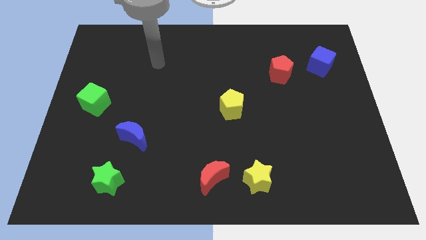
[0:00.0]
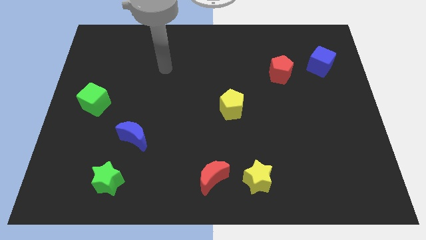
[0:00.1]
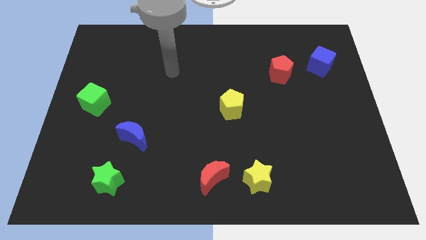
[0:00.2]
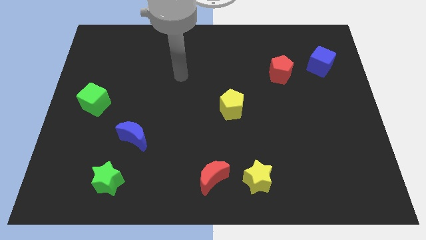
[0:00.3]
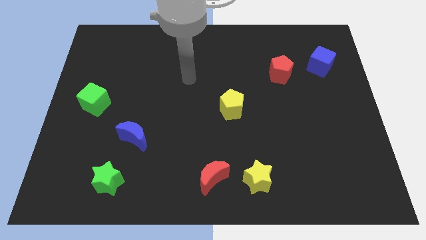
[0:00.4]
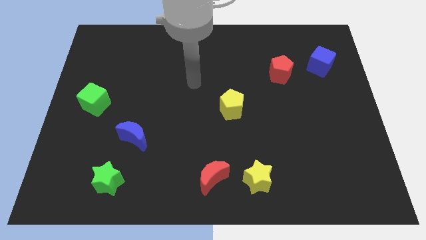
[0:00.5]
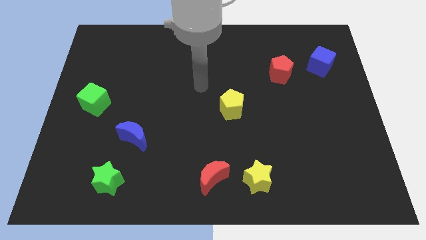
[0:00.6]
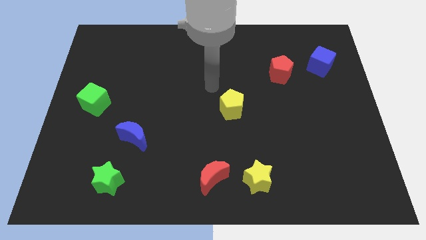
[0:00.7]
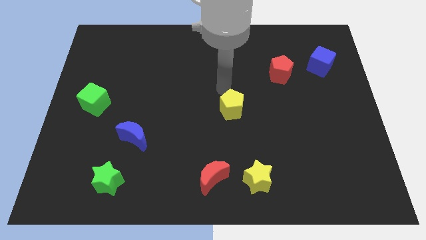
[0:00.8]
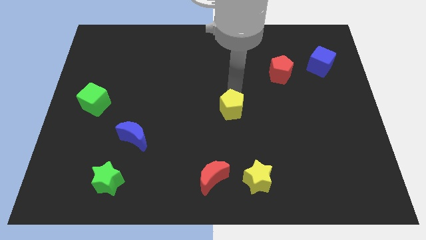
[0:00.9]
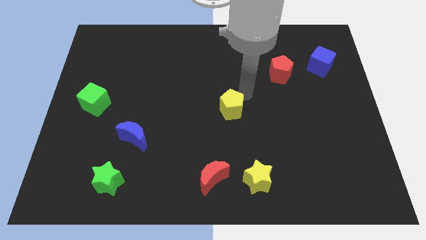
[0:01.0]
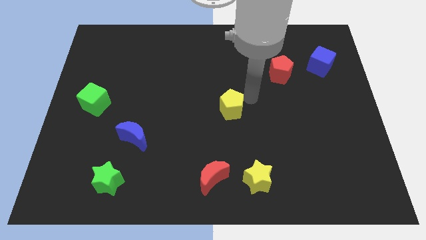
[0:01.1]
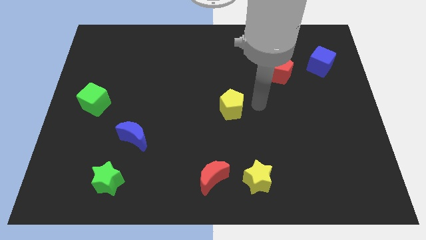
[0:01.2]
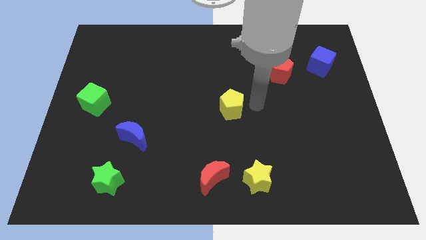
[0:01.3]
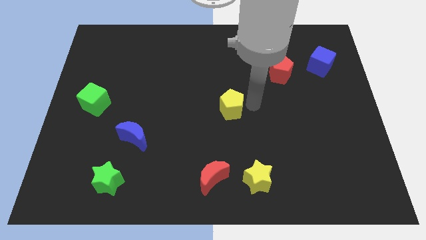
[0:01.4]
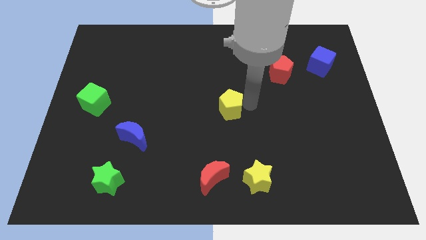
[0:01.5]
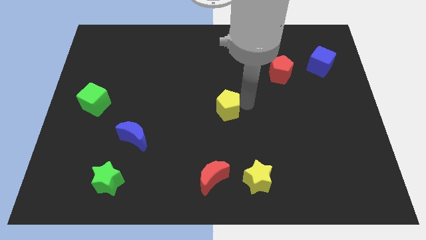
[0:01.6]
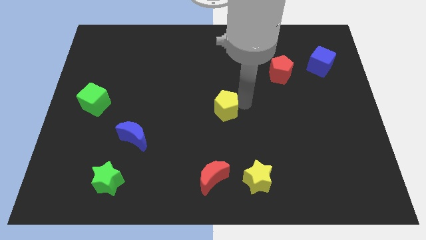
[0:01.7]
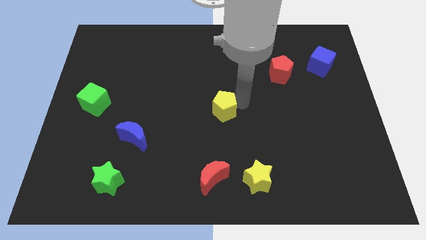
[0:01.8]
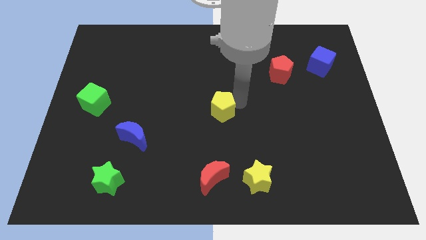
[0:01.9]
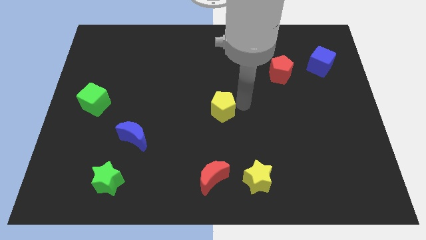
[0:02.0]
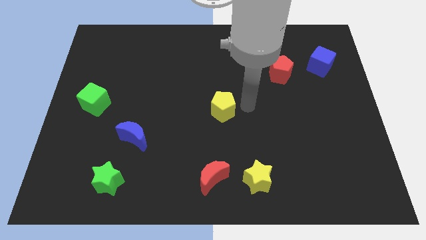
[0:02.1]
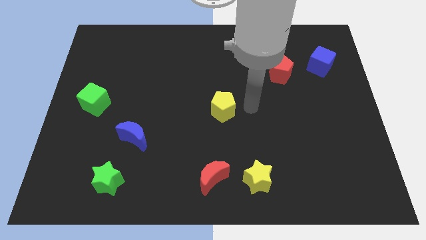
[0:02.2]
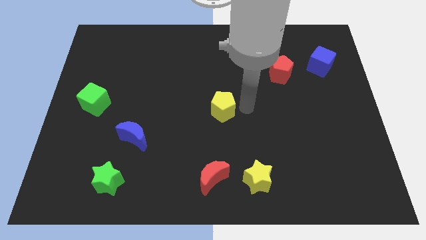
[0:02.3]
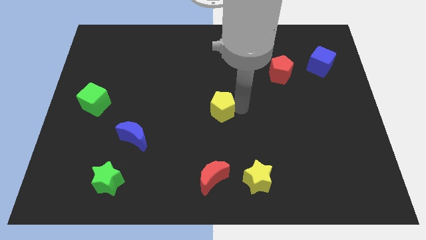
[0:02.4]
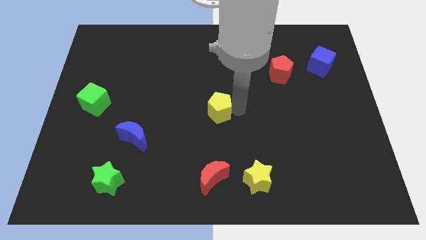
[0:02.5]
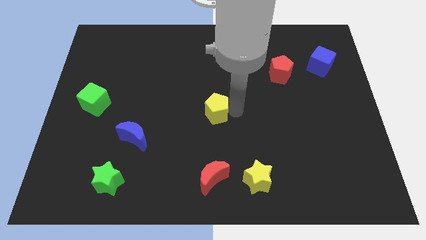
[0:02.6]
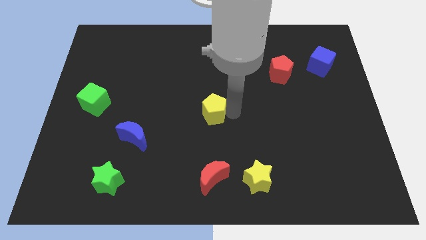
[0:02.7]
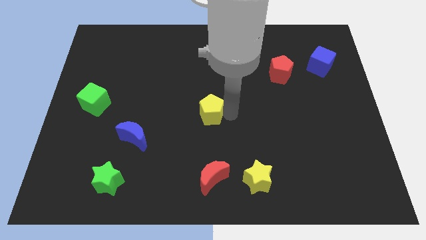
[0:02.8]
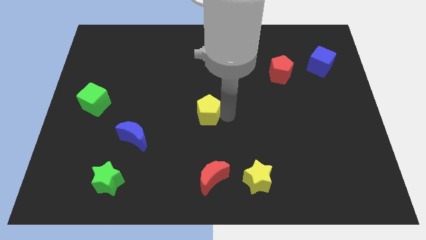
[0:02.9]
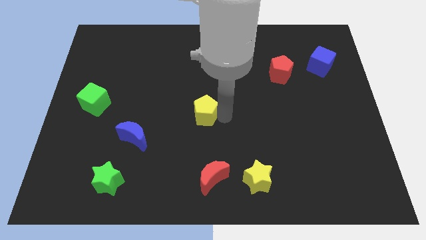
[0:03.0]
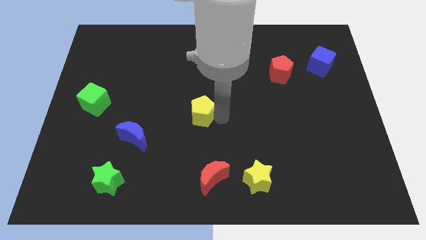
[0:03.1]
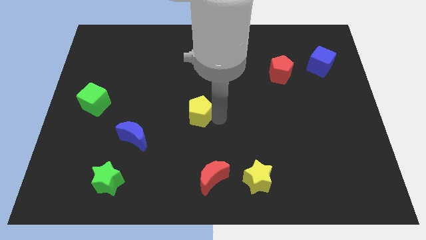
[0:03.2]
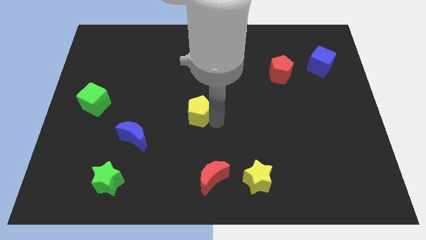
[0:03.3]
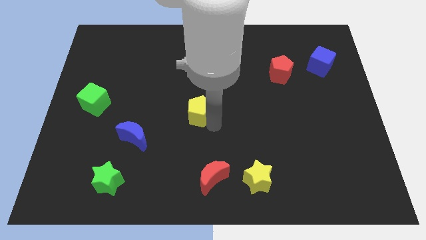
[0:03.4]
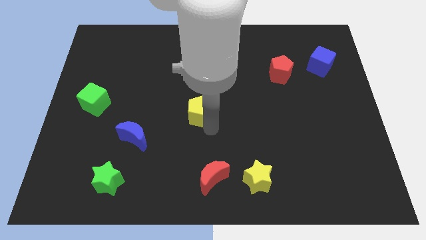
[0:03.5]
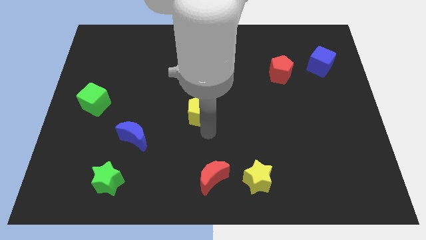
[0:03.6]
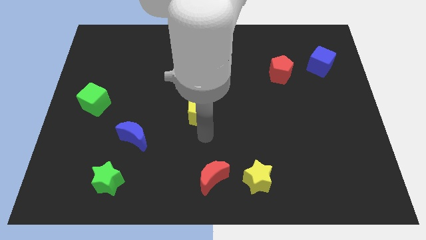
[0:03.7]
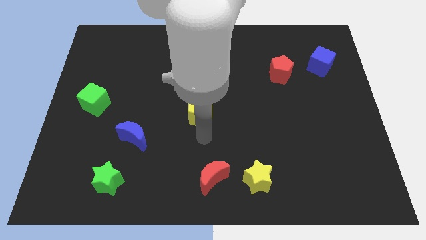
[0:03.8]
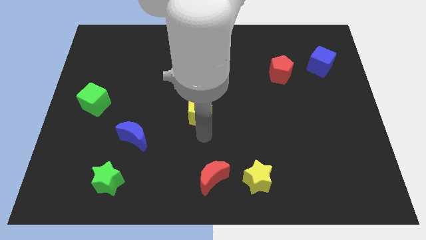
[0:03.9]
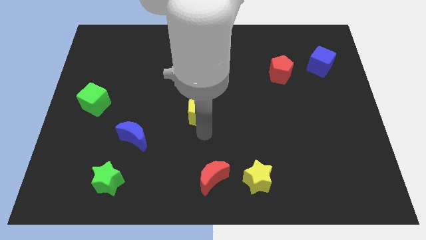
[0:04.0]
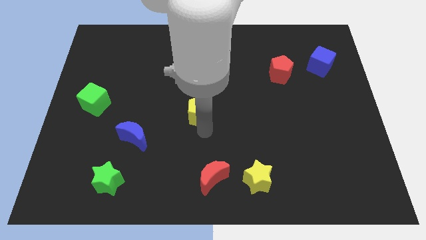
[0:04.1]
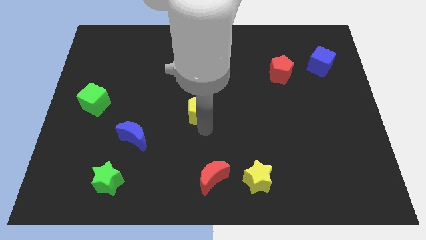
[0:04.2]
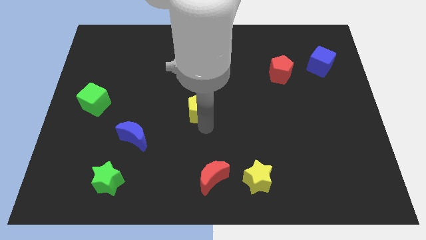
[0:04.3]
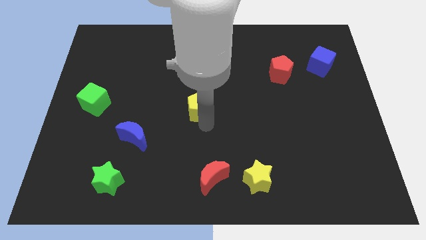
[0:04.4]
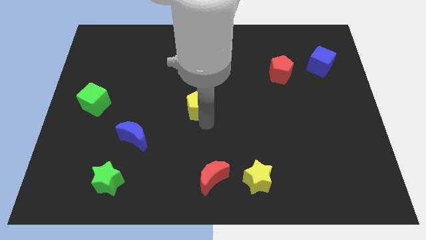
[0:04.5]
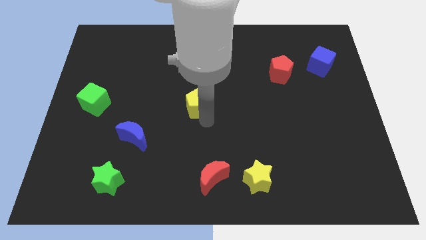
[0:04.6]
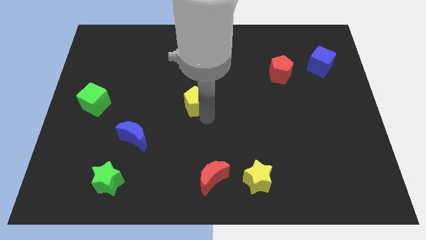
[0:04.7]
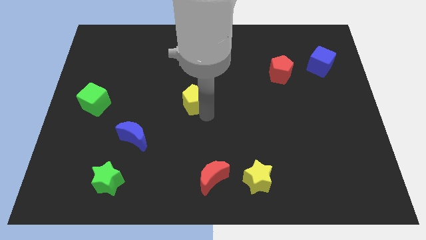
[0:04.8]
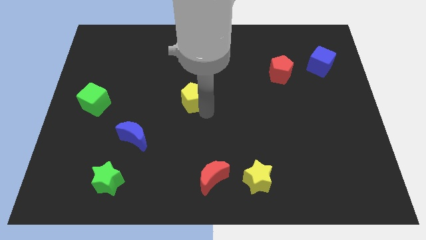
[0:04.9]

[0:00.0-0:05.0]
slightly move the yellow pentagon up and left diagonally

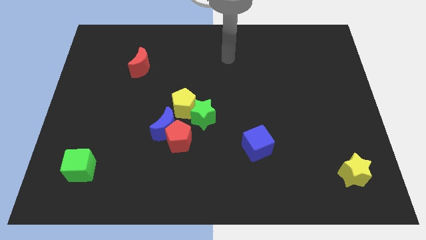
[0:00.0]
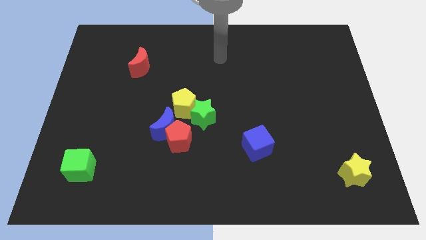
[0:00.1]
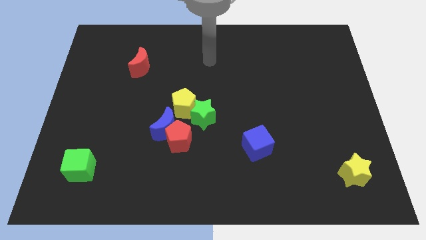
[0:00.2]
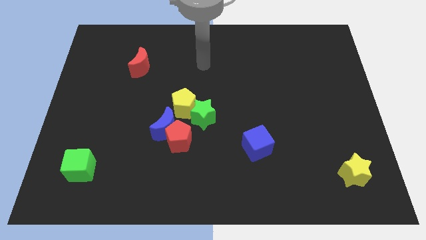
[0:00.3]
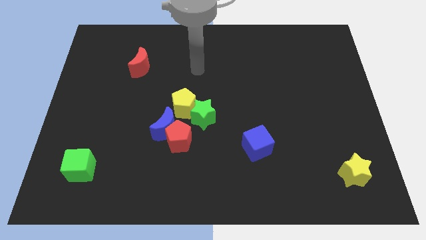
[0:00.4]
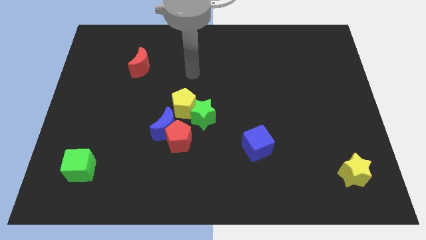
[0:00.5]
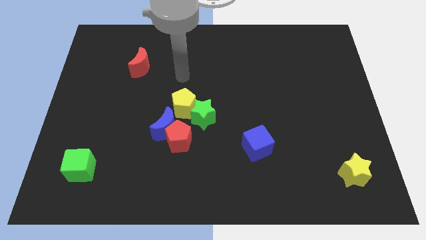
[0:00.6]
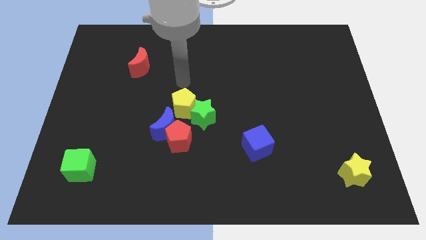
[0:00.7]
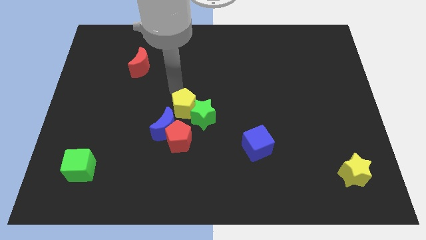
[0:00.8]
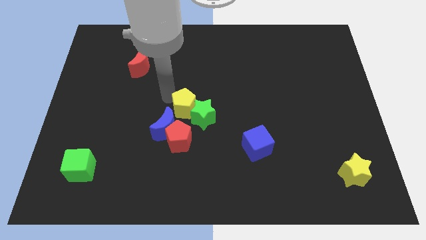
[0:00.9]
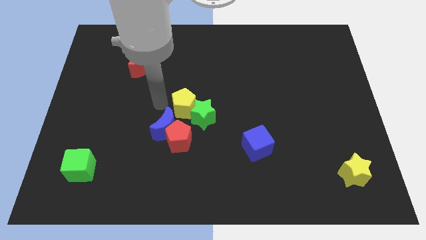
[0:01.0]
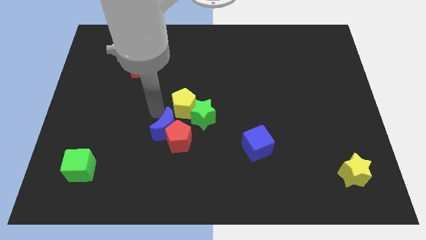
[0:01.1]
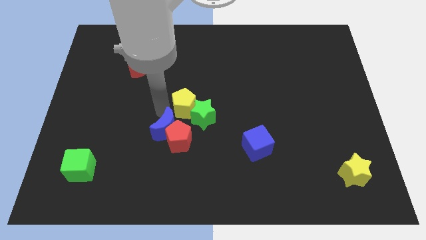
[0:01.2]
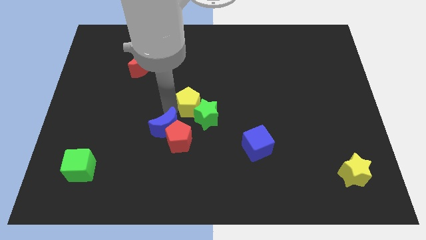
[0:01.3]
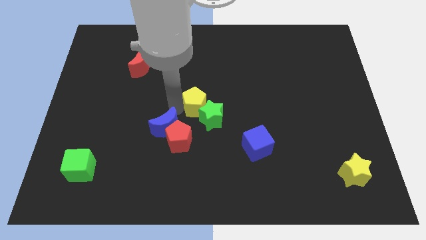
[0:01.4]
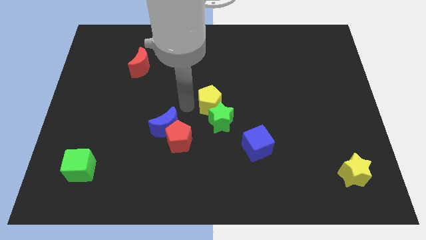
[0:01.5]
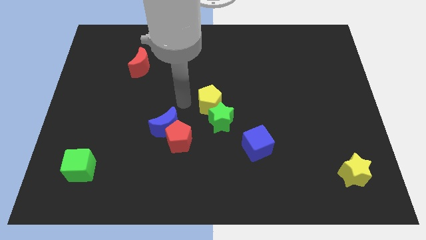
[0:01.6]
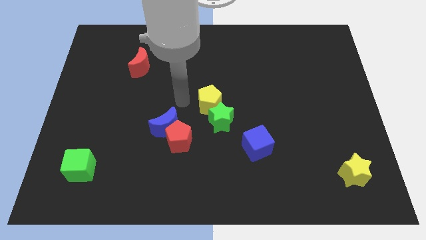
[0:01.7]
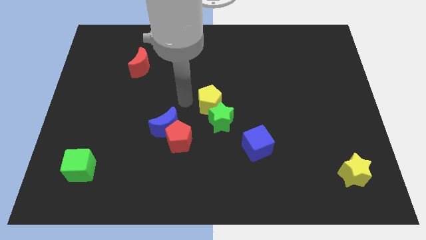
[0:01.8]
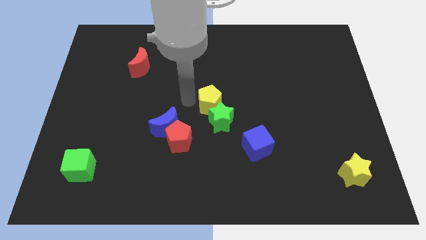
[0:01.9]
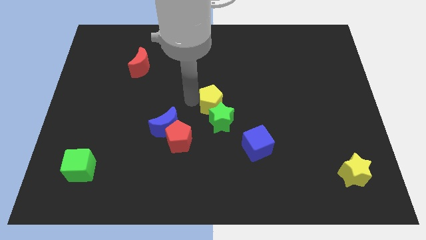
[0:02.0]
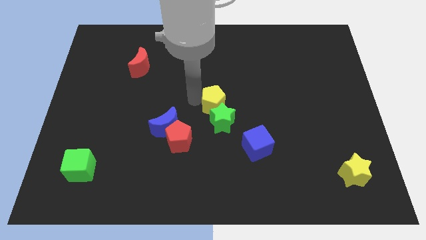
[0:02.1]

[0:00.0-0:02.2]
slightly slide the yellow pentagon right

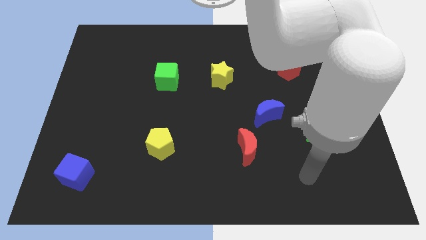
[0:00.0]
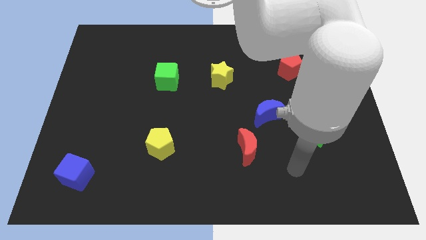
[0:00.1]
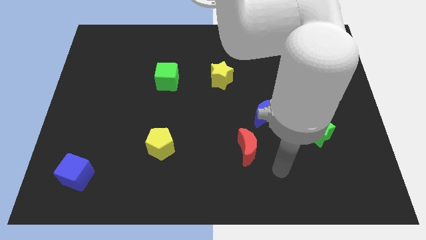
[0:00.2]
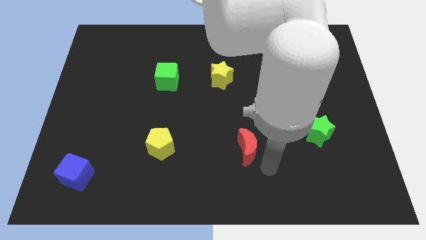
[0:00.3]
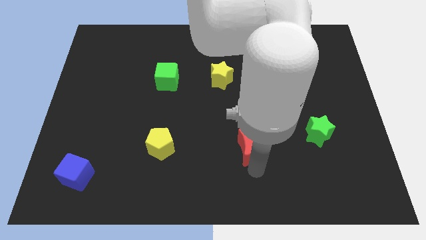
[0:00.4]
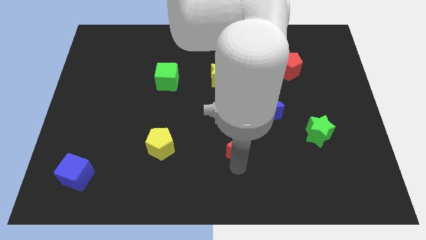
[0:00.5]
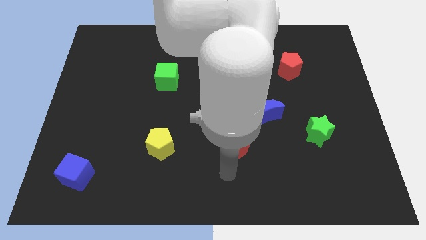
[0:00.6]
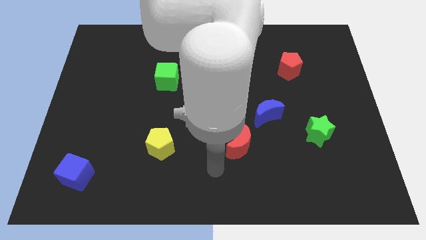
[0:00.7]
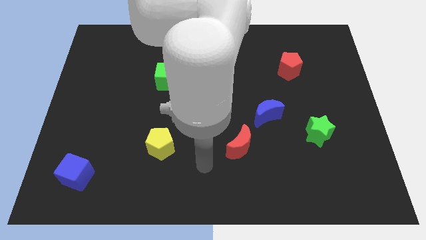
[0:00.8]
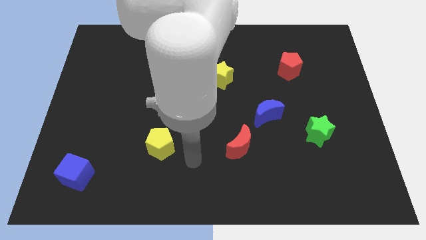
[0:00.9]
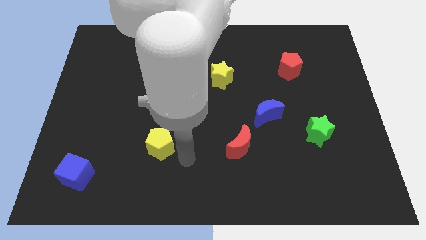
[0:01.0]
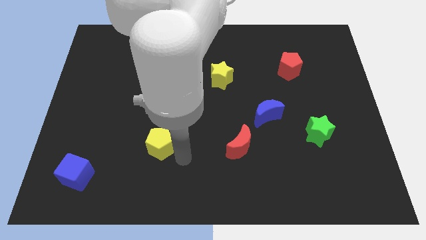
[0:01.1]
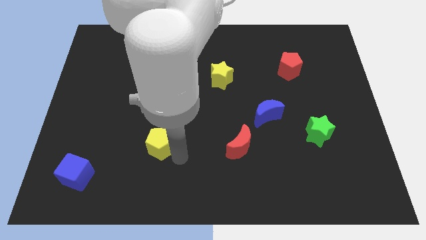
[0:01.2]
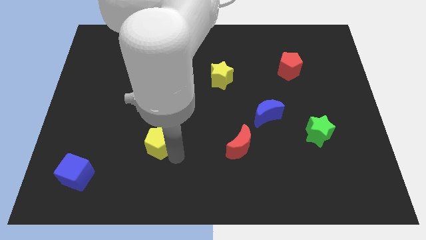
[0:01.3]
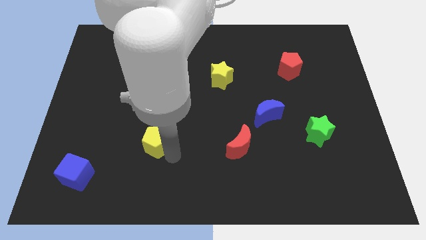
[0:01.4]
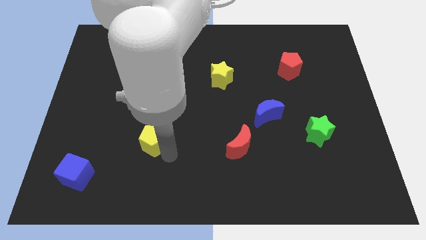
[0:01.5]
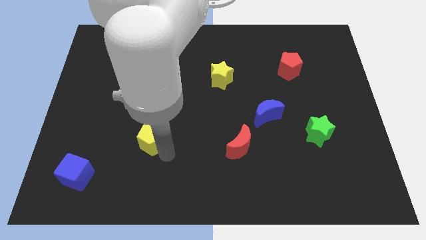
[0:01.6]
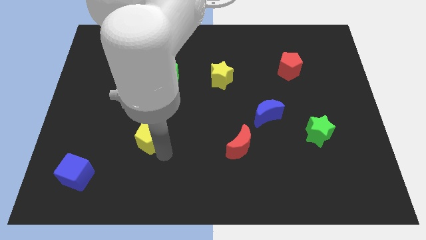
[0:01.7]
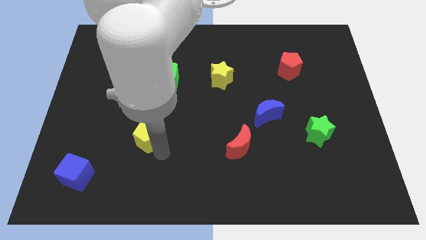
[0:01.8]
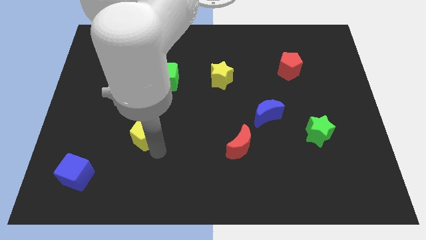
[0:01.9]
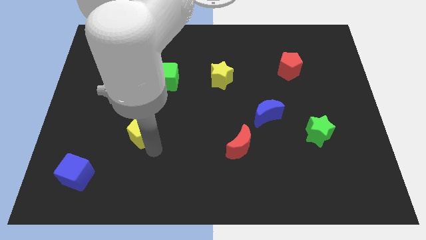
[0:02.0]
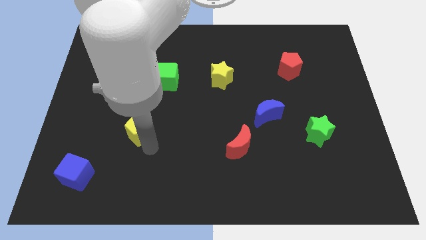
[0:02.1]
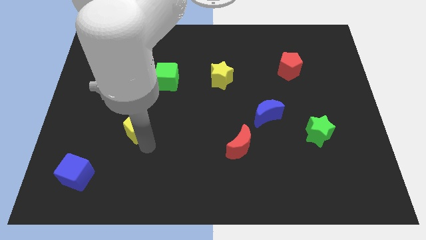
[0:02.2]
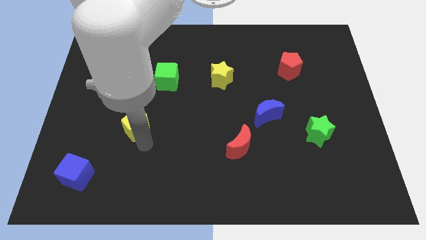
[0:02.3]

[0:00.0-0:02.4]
push the yellow pentagon upwards and then left slightly
